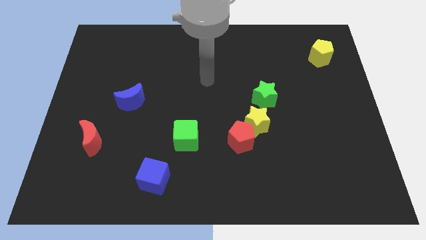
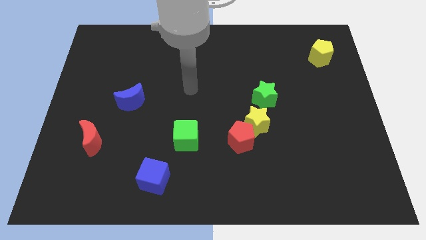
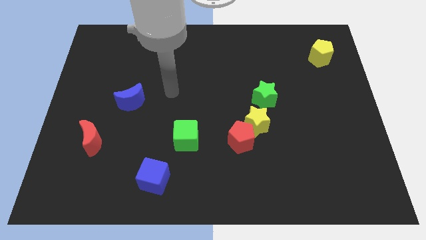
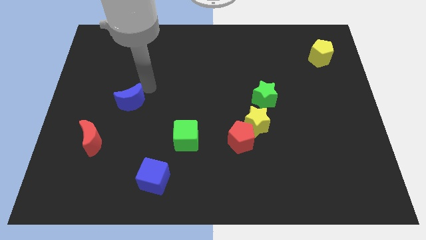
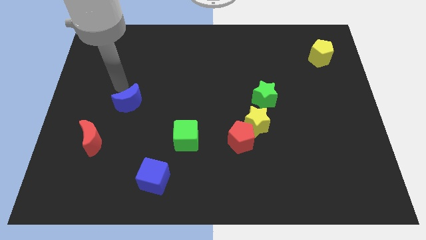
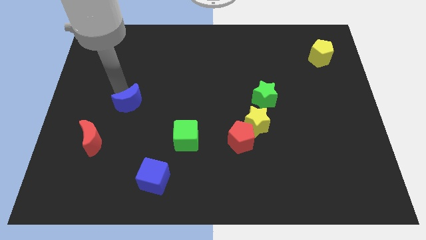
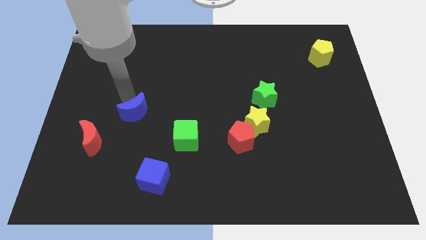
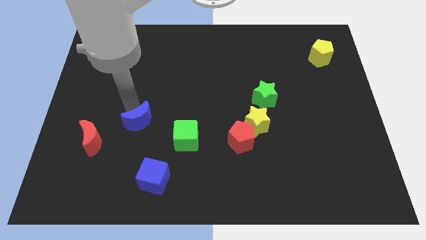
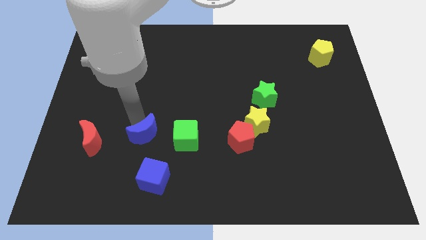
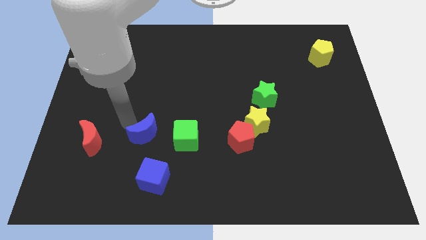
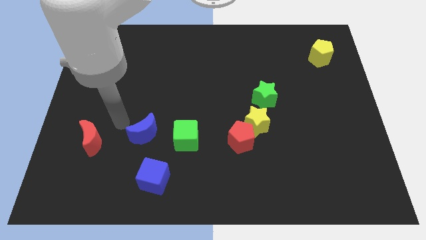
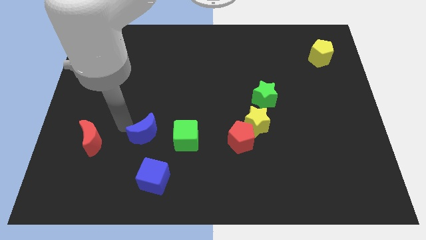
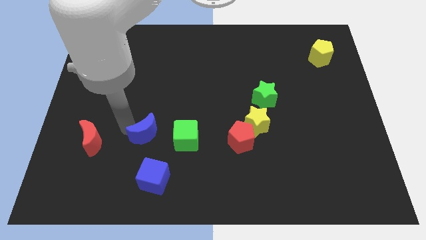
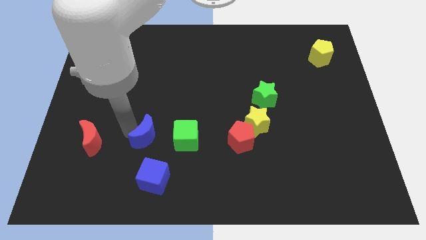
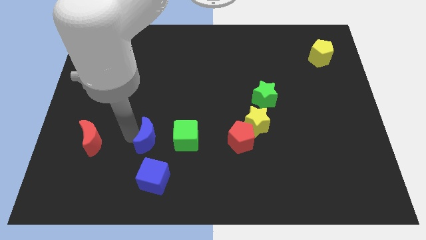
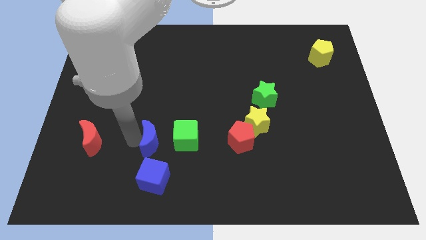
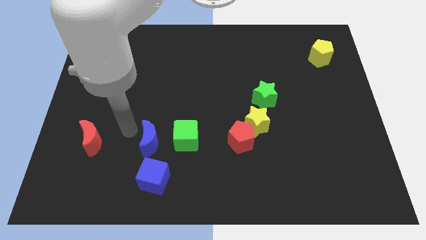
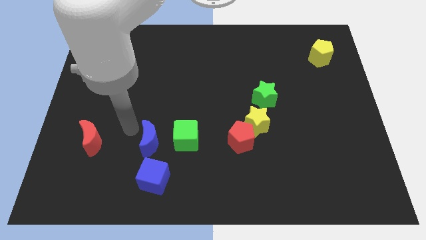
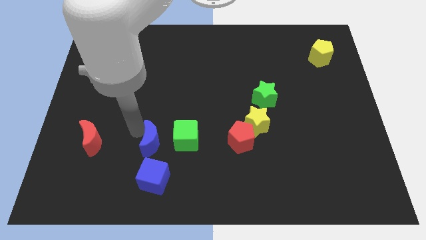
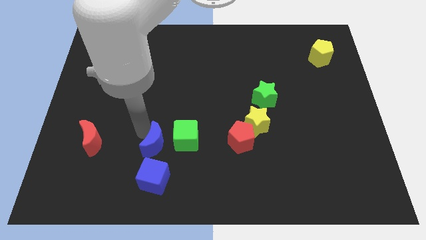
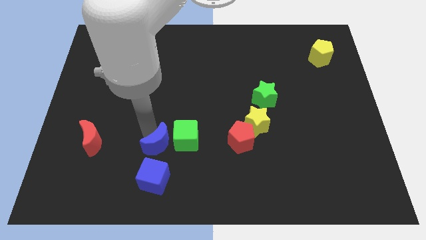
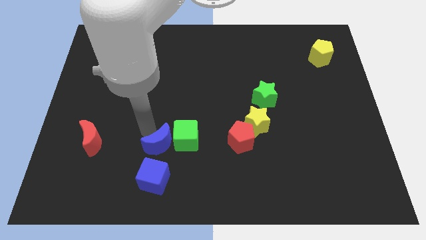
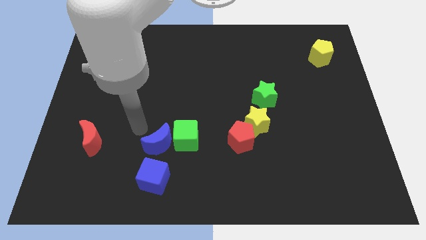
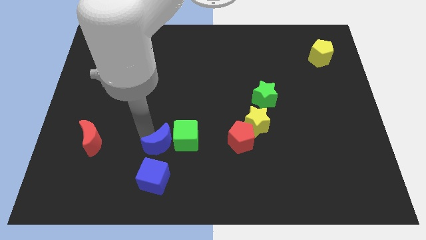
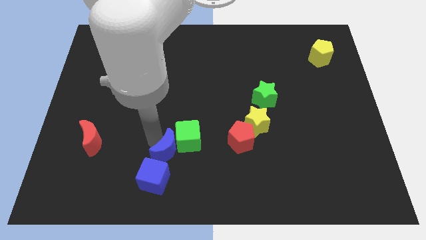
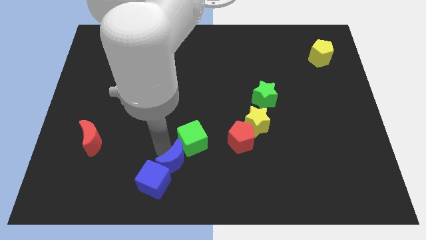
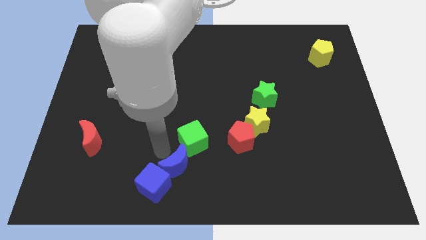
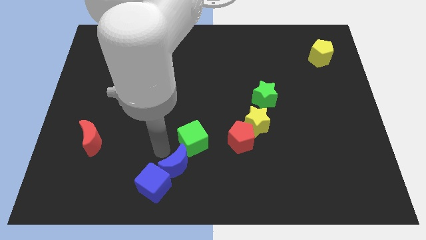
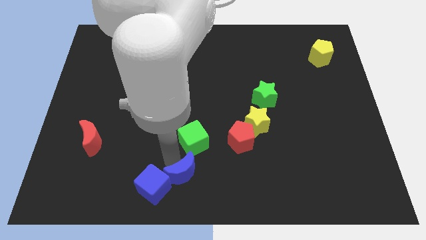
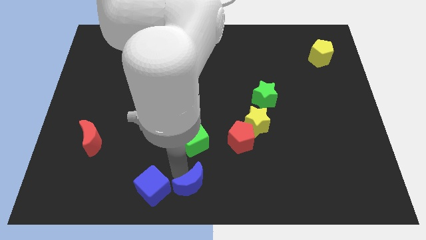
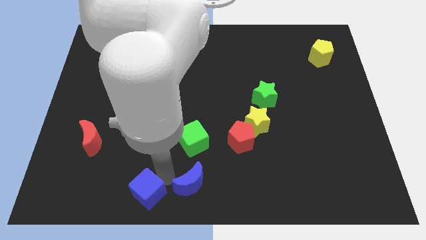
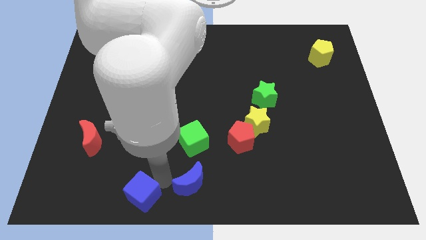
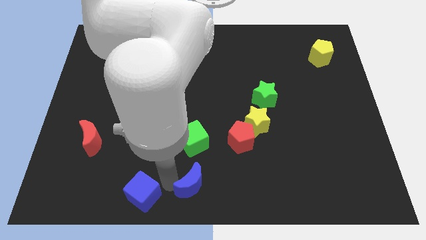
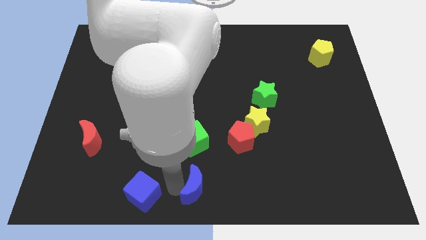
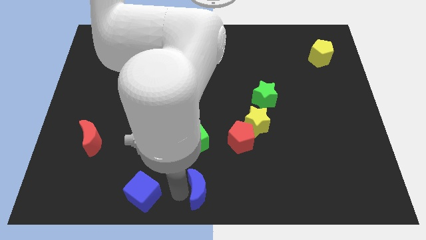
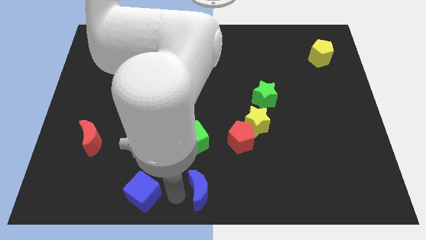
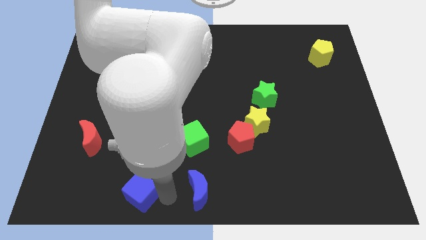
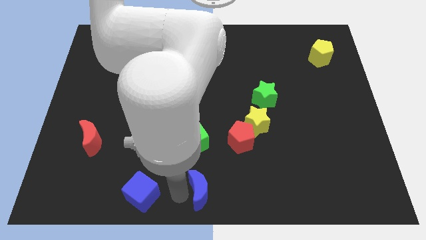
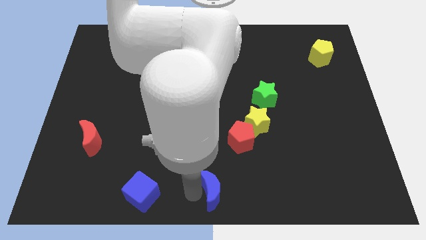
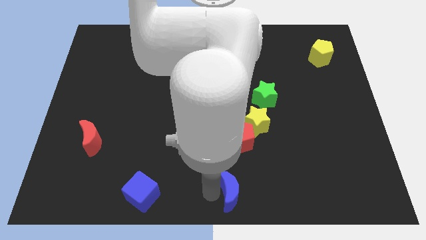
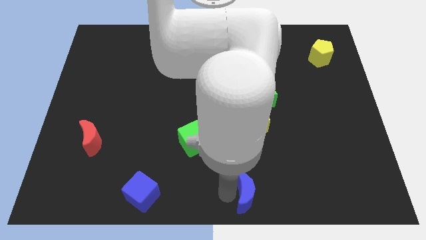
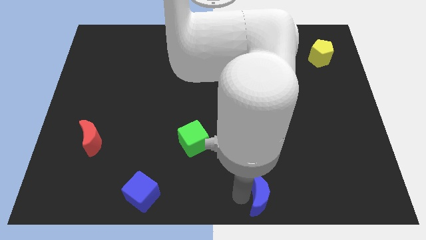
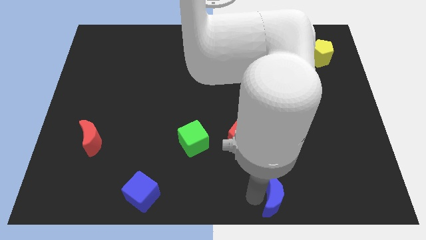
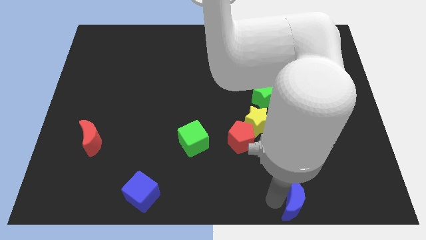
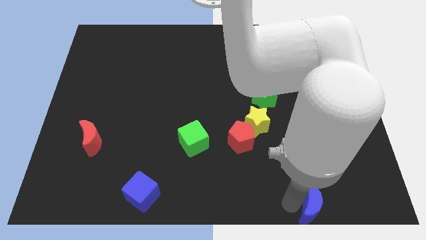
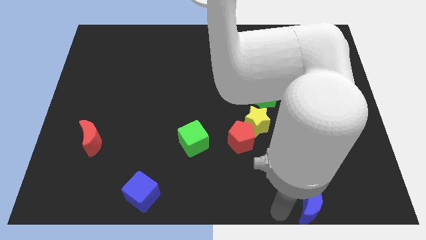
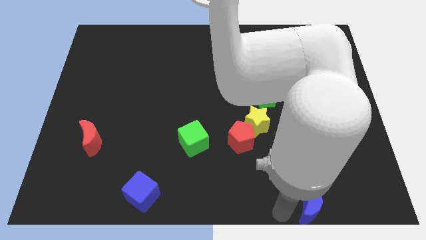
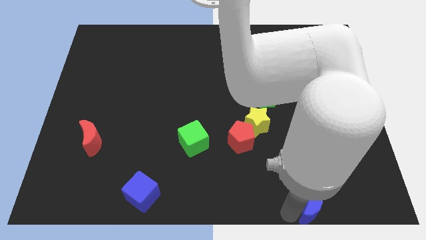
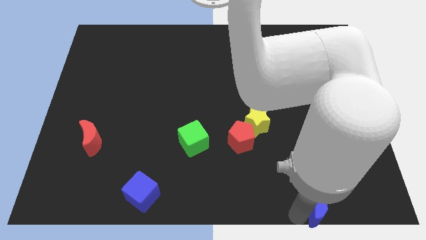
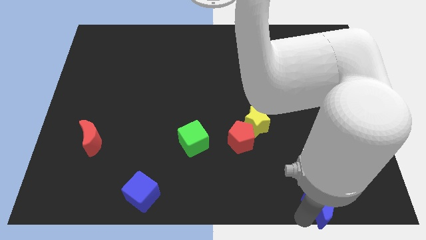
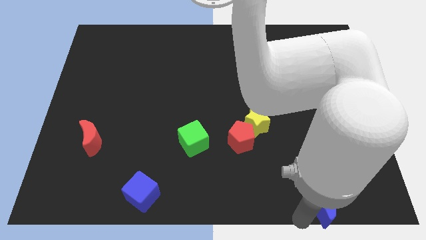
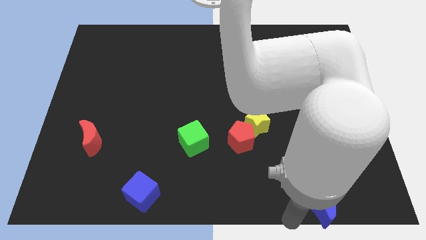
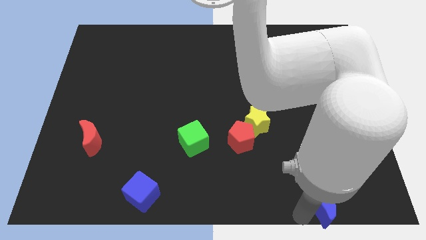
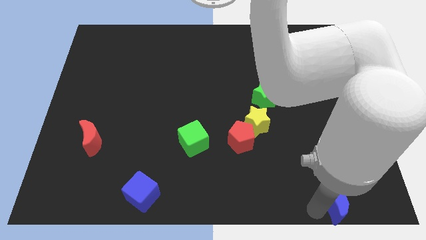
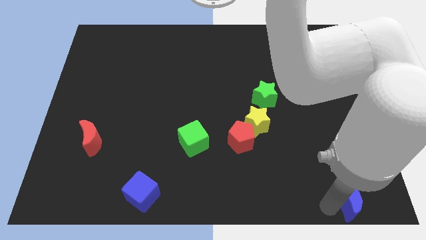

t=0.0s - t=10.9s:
slide the blue moon to the bottom right corner

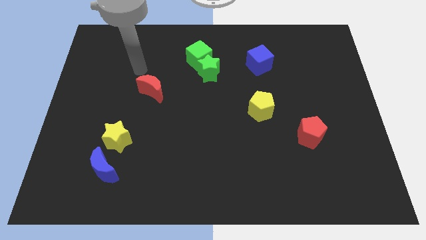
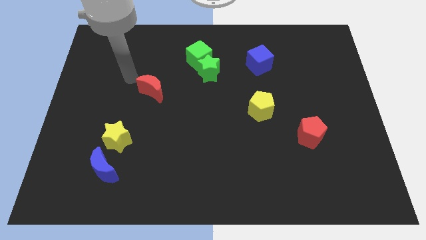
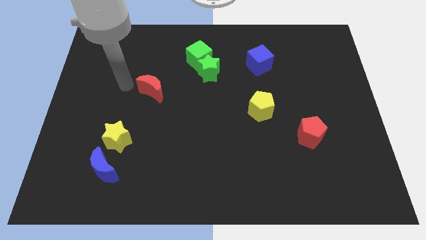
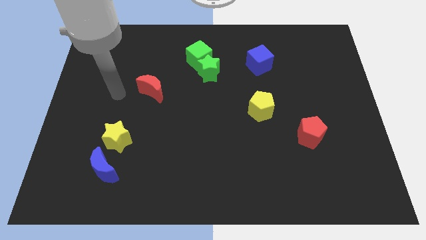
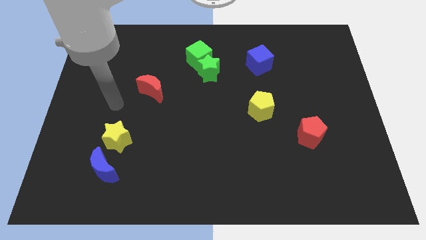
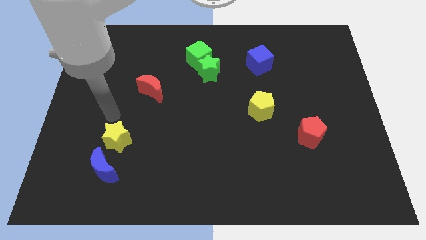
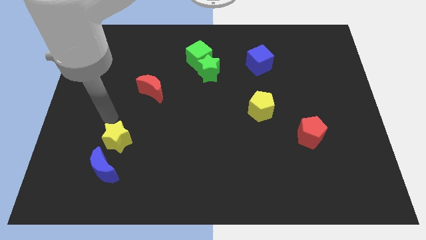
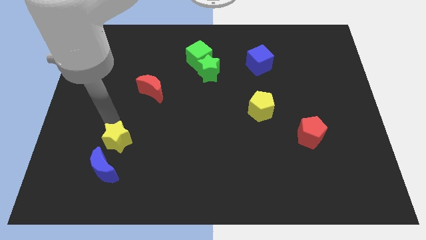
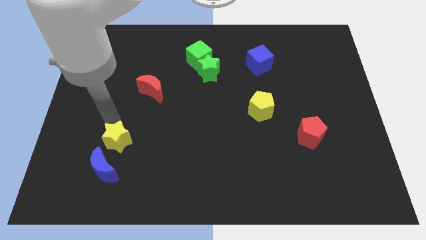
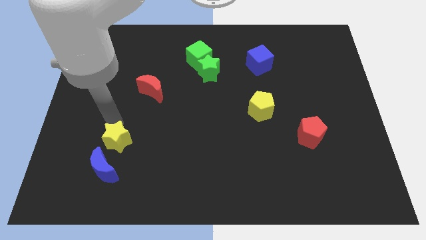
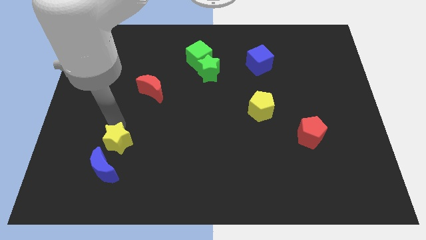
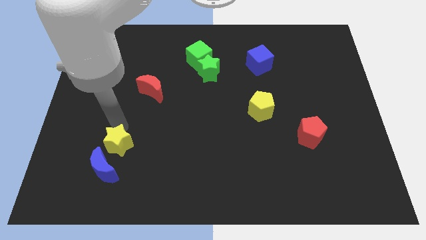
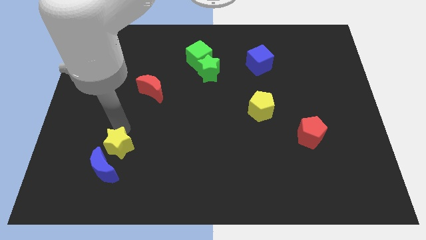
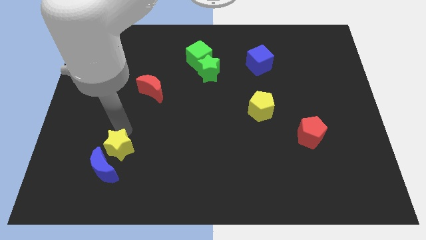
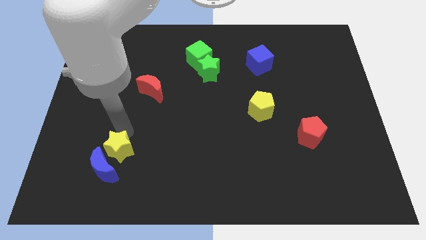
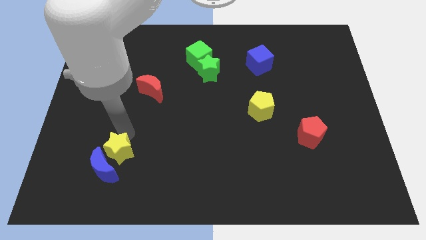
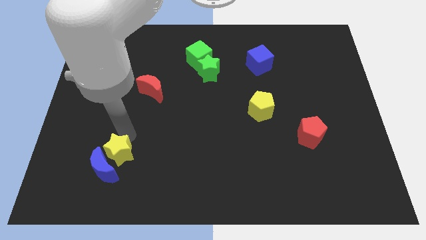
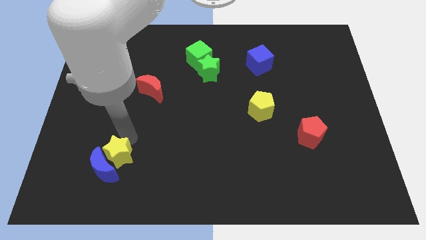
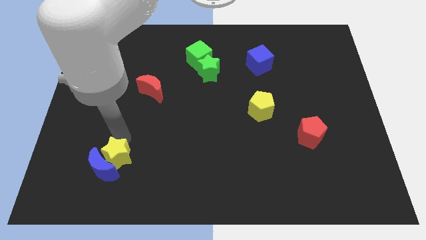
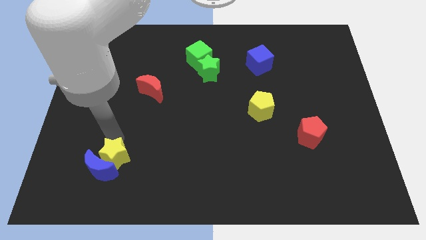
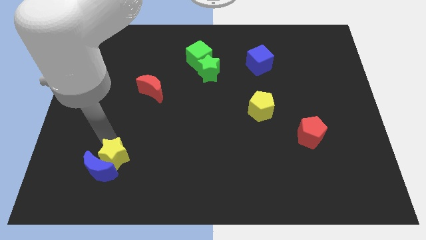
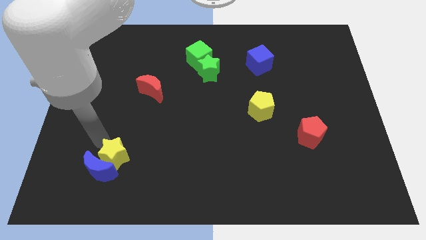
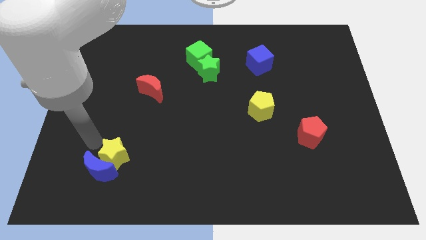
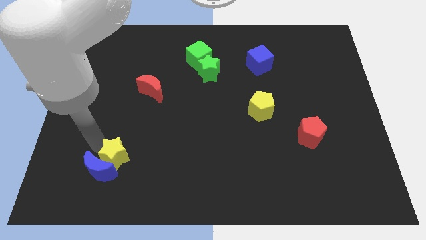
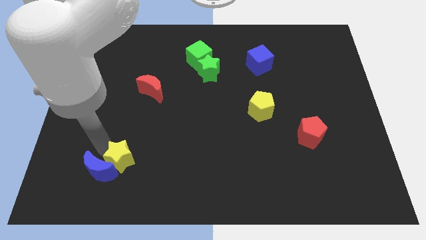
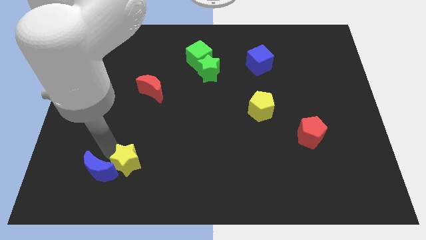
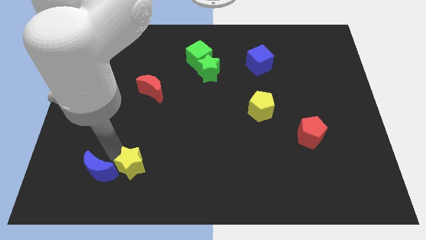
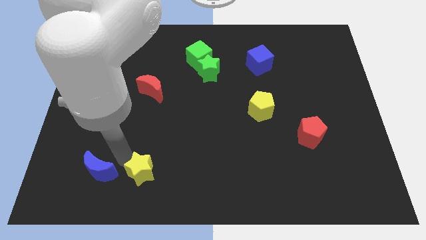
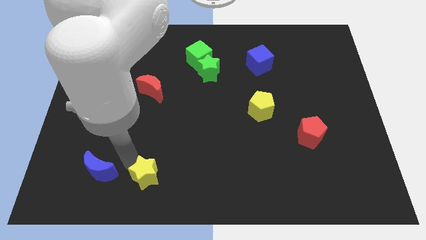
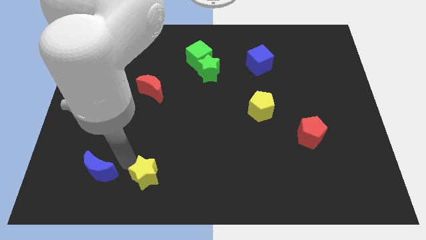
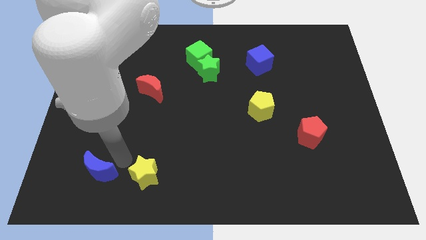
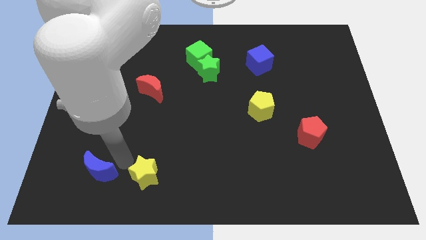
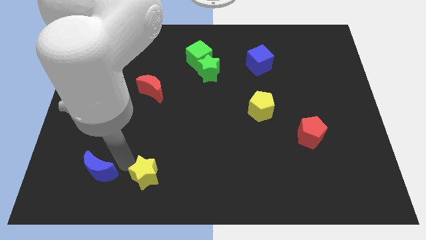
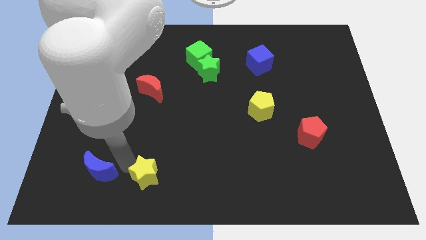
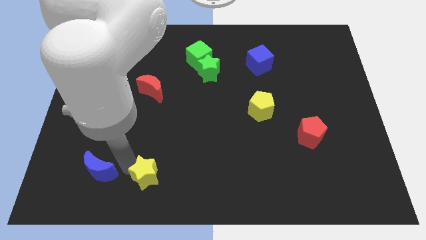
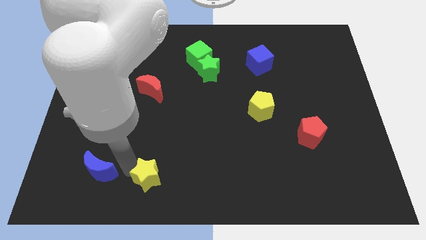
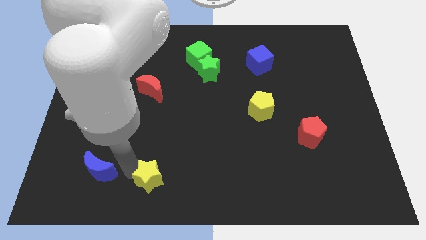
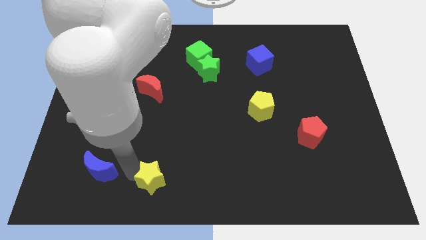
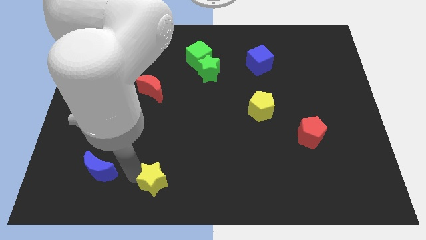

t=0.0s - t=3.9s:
slide the yellow star to the bottom
